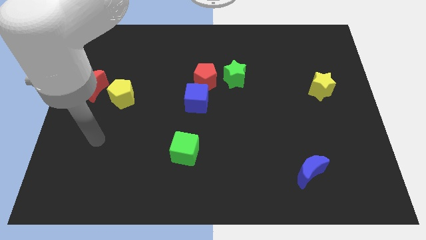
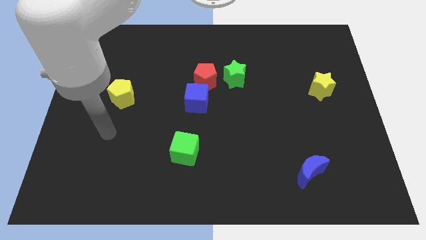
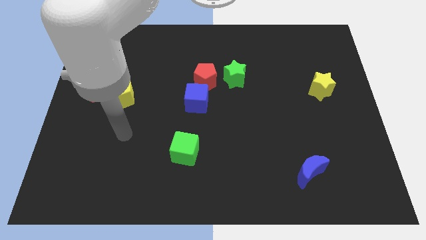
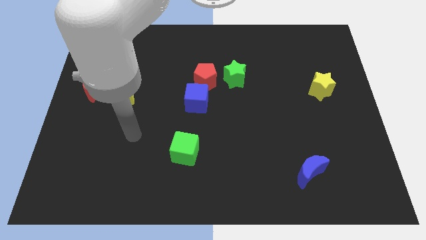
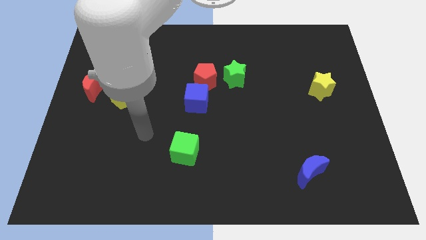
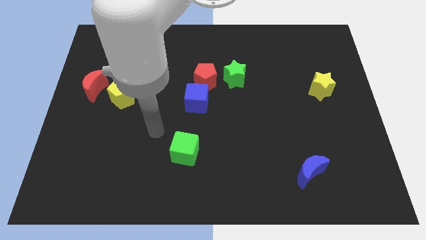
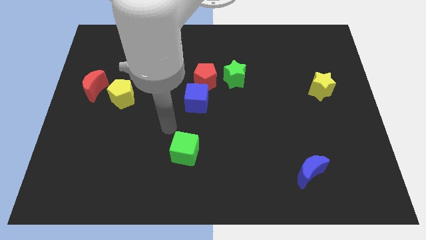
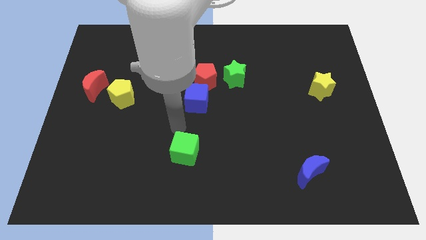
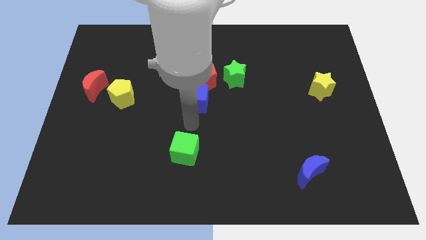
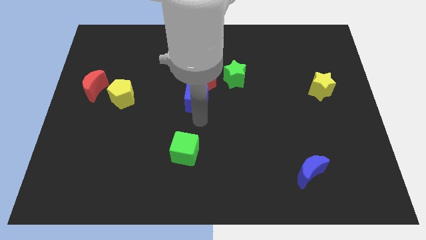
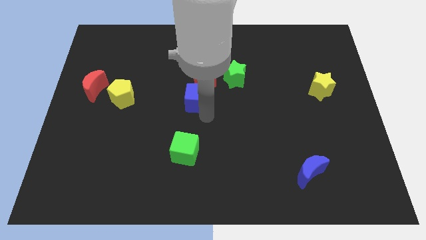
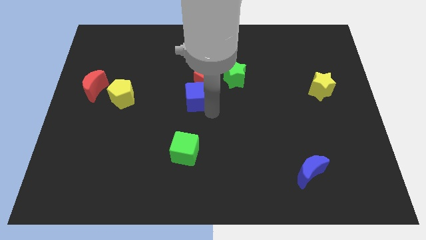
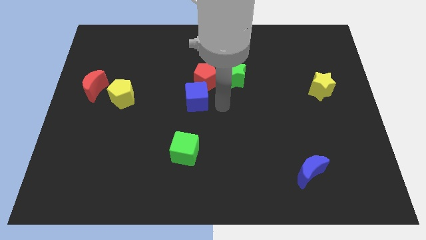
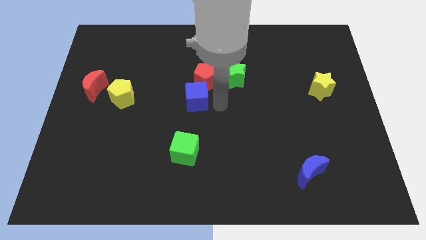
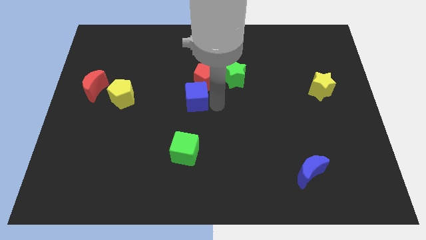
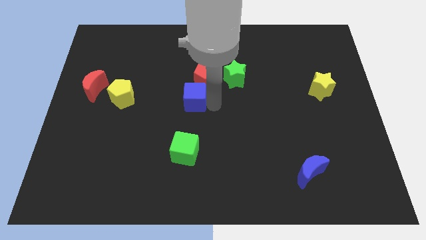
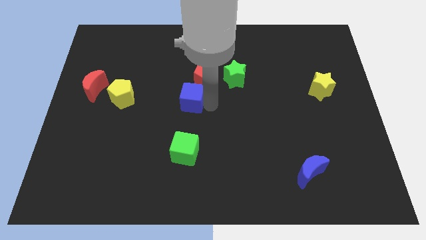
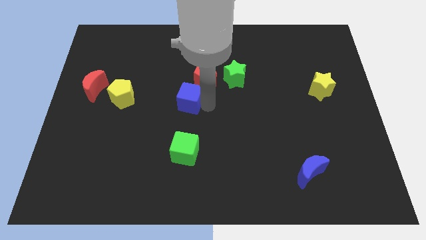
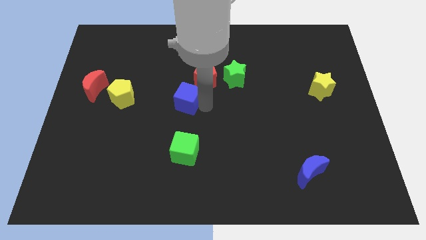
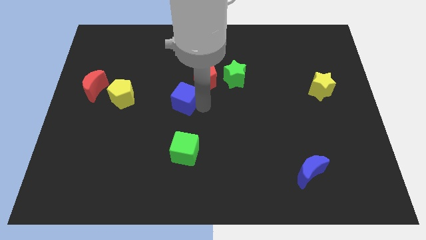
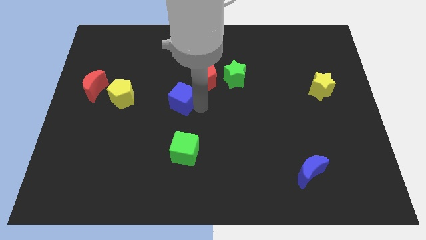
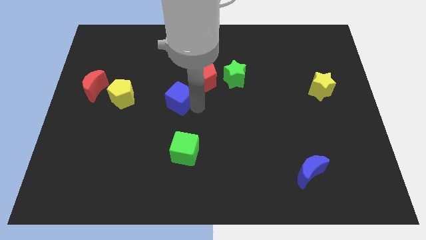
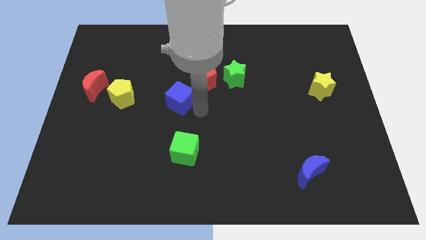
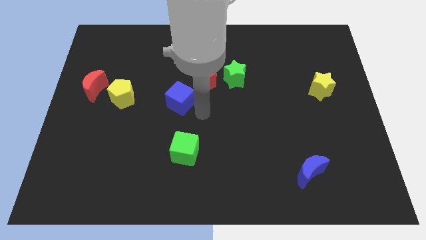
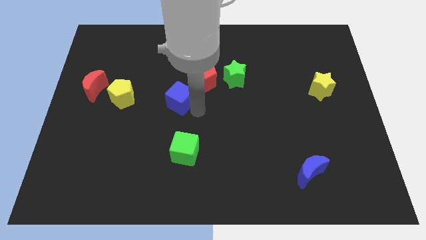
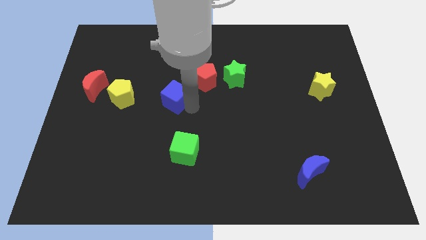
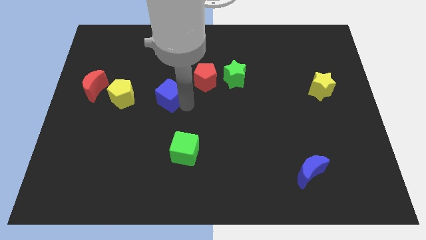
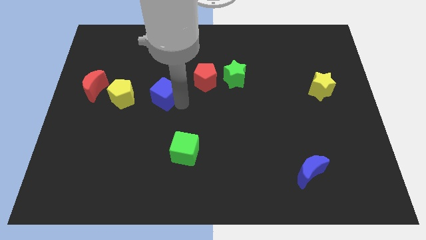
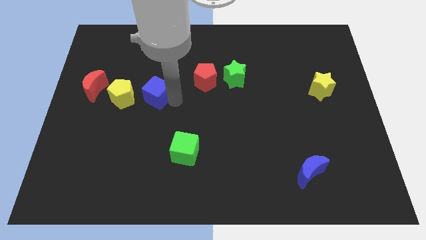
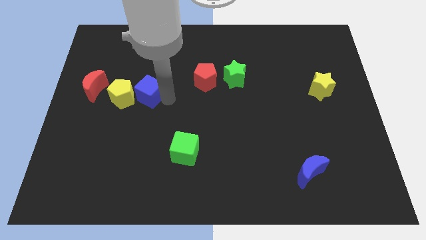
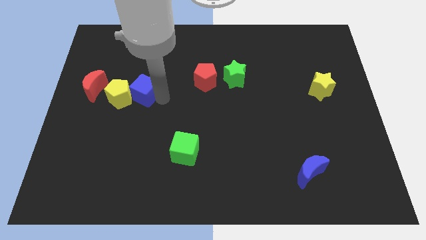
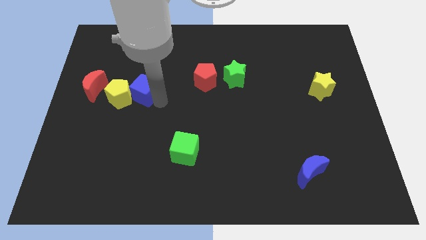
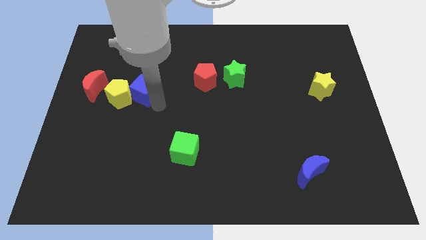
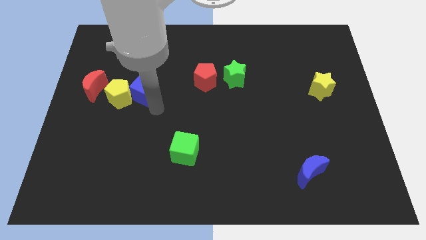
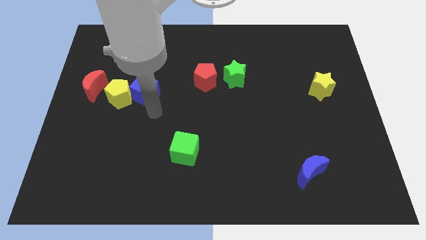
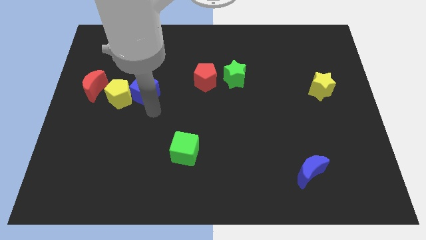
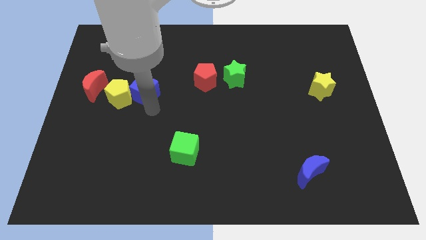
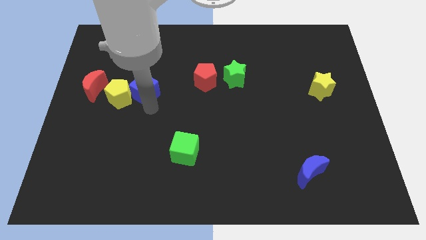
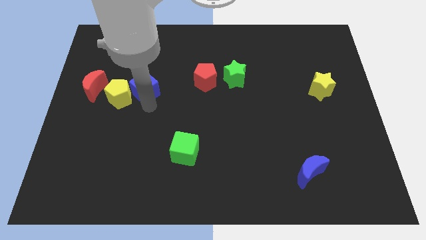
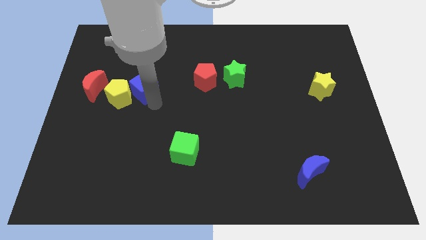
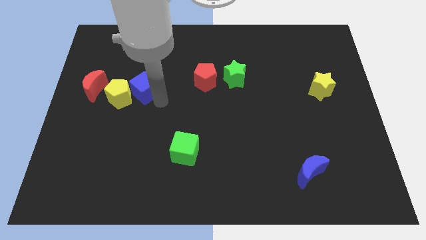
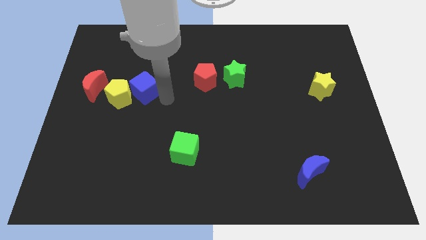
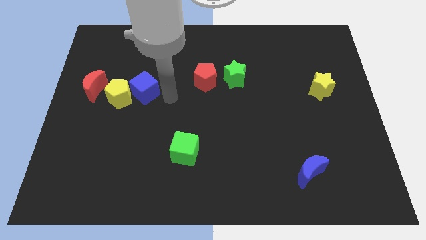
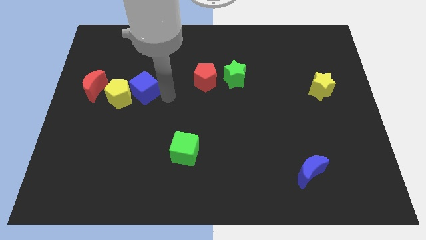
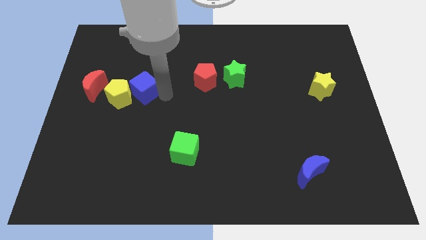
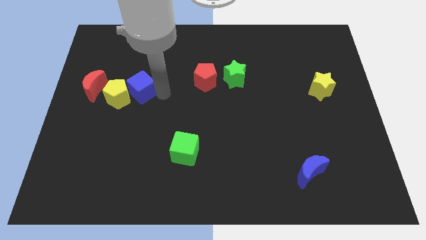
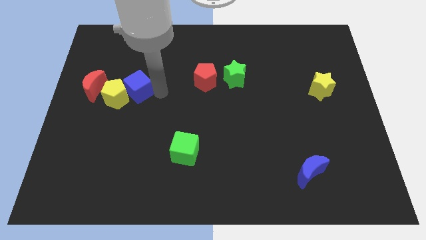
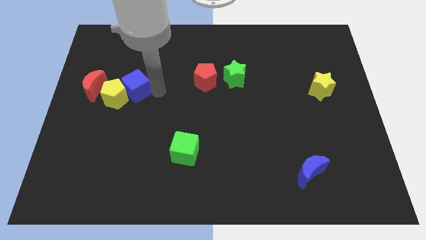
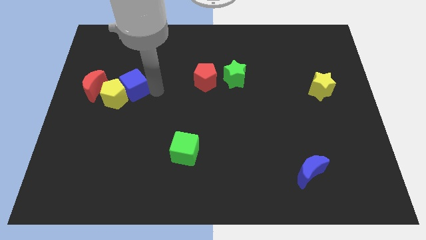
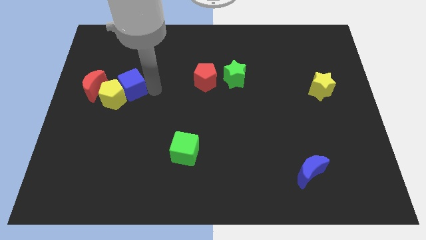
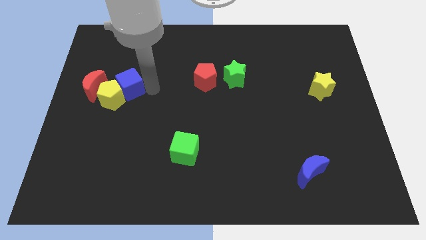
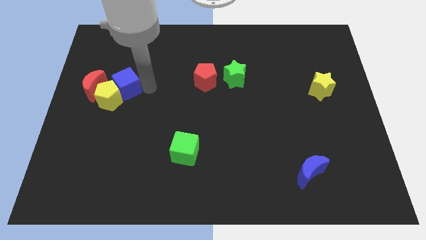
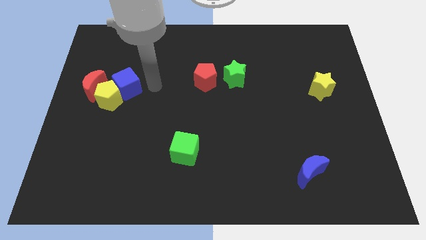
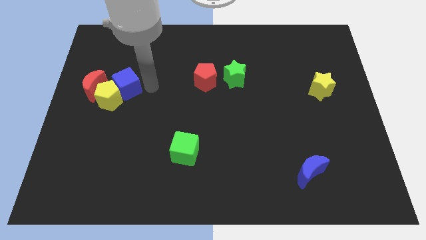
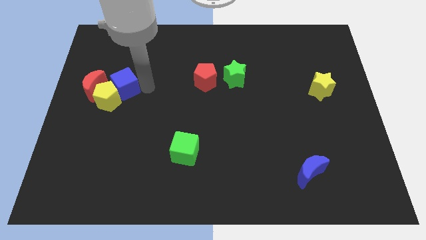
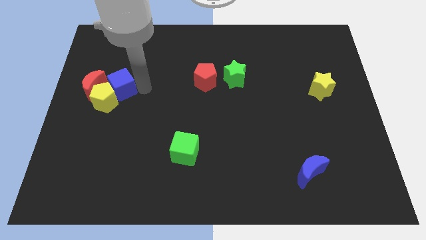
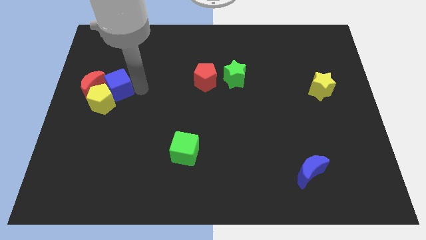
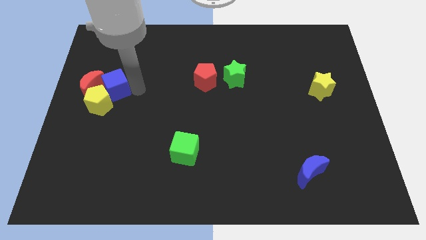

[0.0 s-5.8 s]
put the blue cube towards the red moon

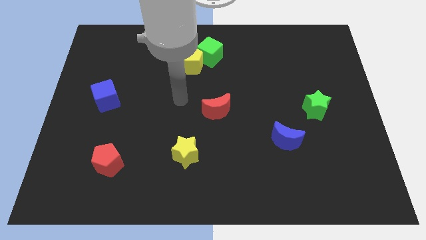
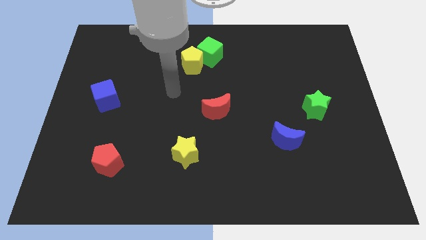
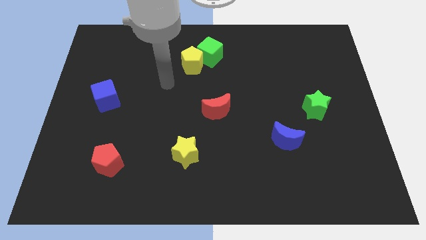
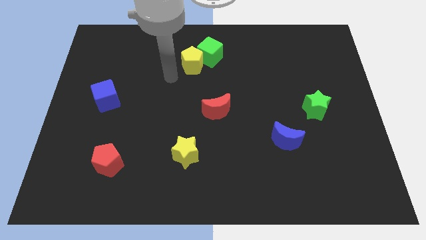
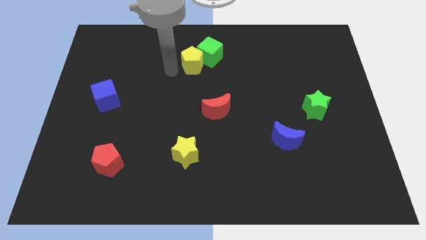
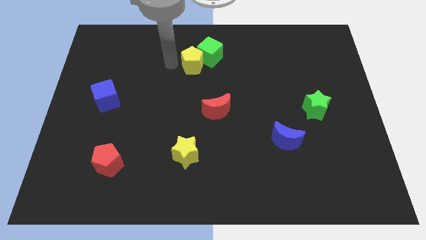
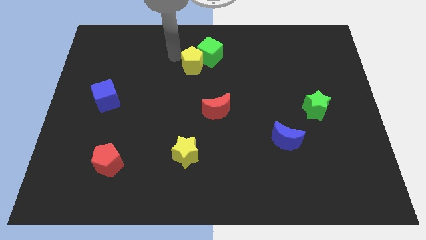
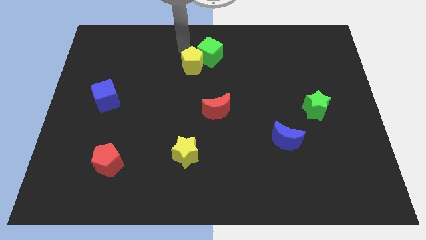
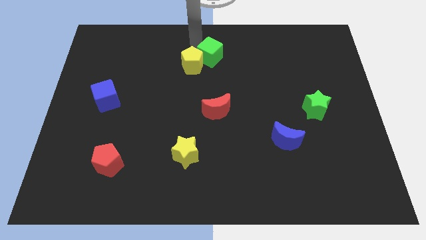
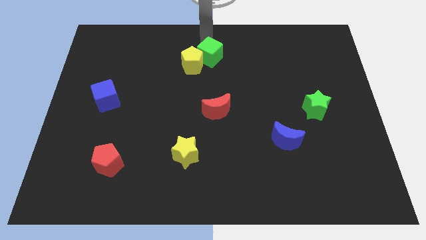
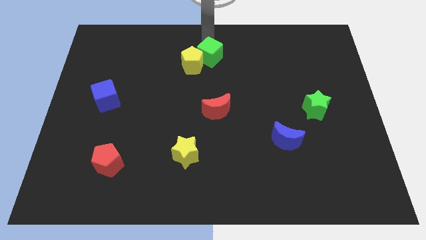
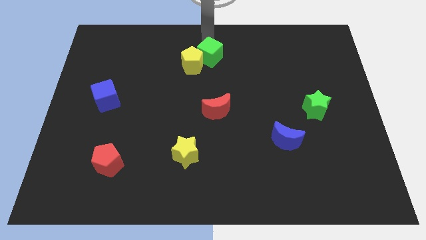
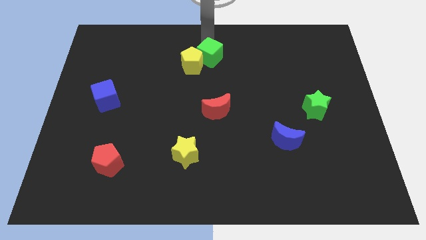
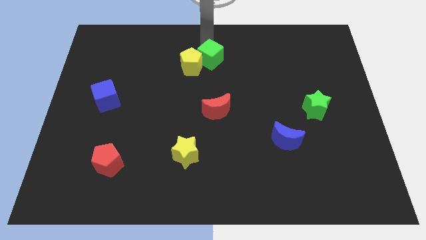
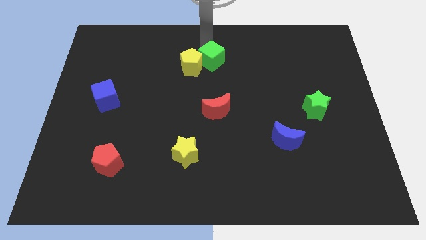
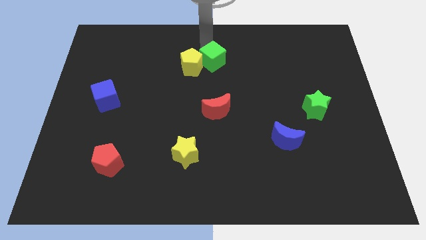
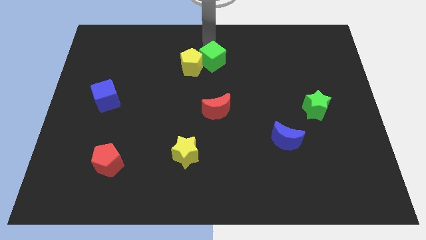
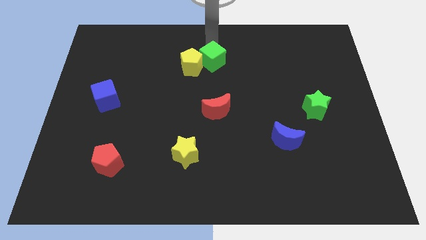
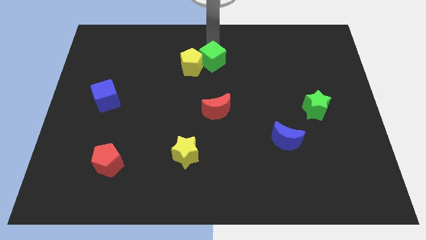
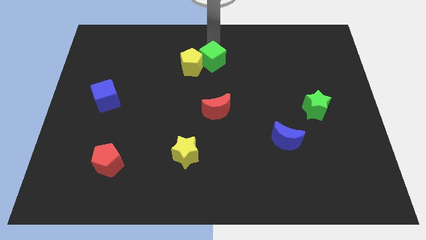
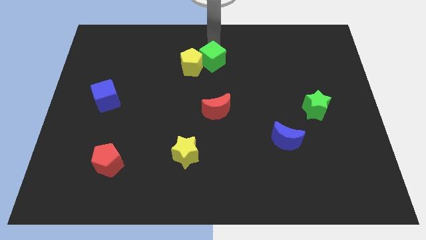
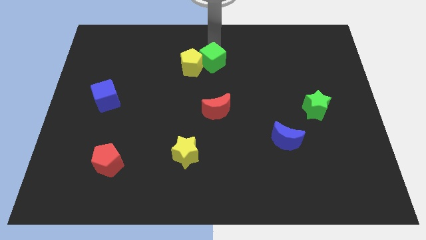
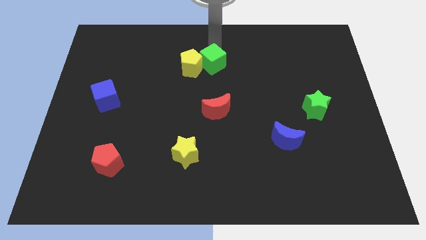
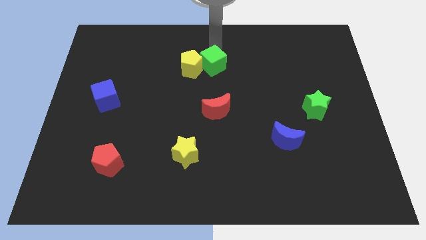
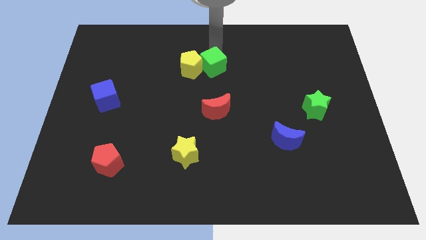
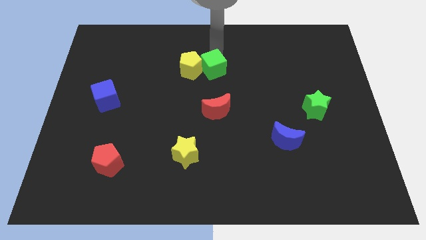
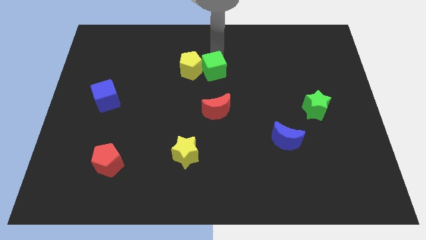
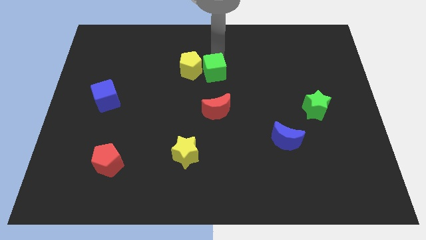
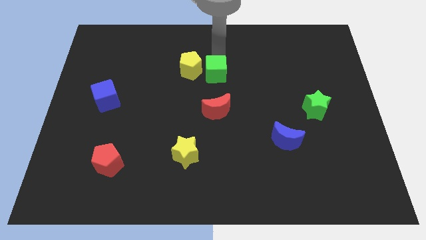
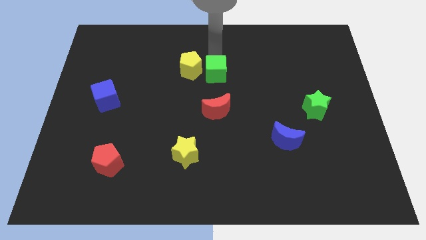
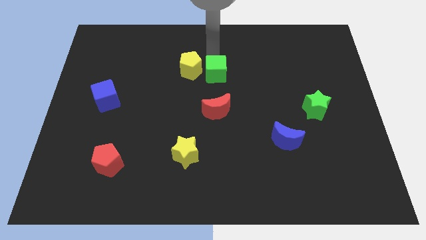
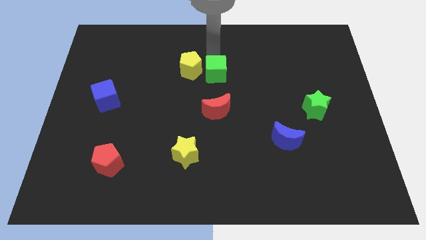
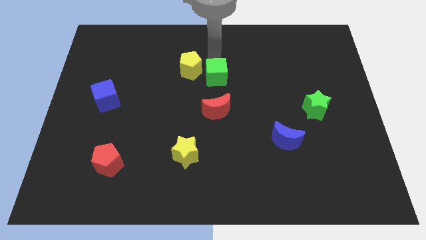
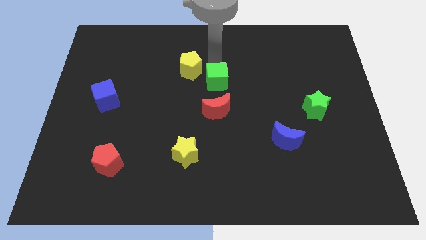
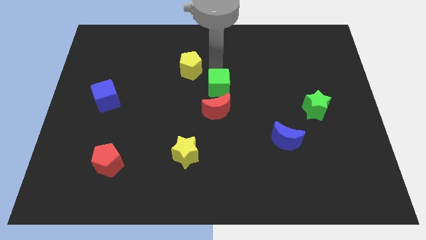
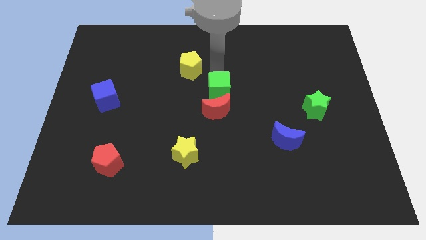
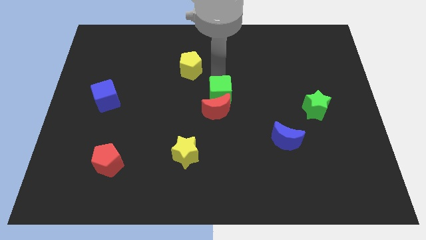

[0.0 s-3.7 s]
push the green cube close to the red moon
